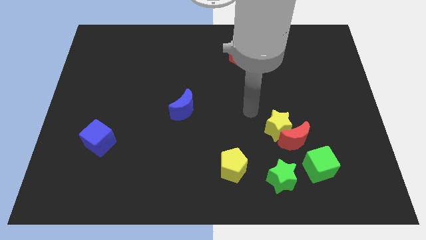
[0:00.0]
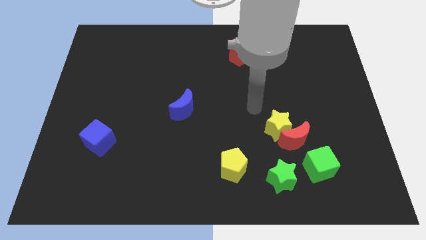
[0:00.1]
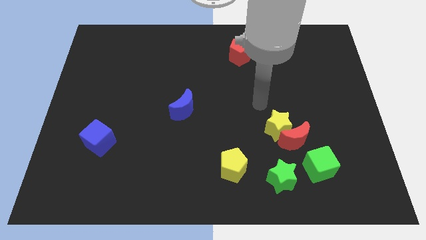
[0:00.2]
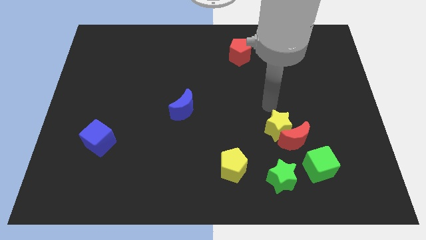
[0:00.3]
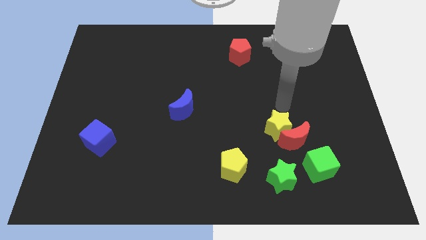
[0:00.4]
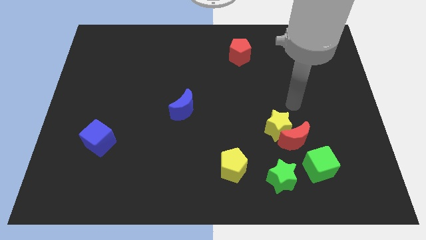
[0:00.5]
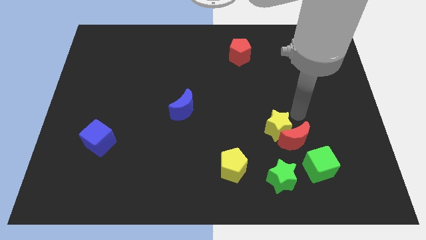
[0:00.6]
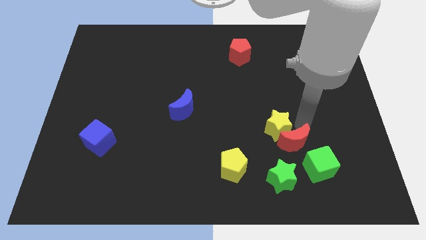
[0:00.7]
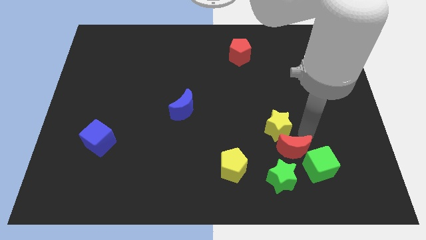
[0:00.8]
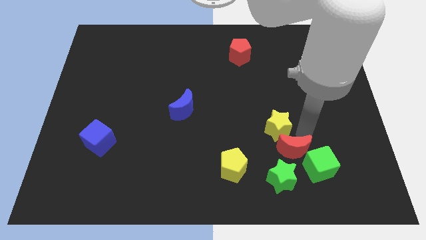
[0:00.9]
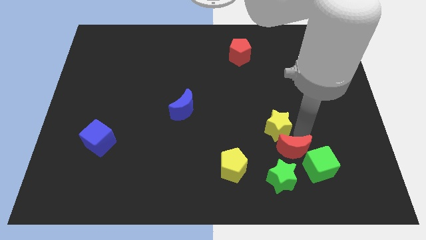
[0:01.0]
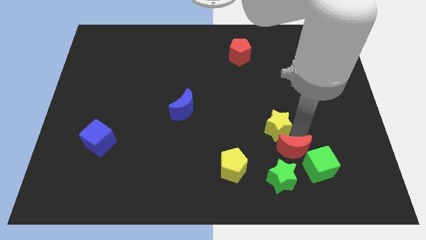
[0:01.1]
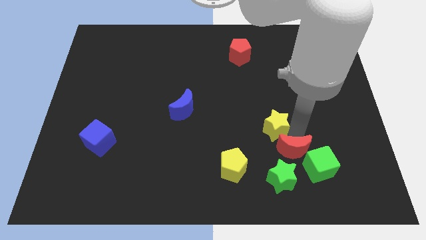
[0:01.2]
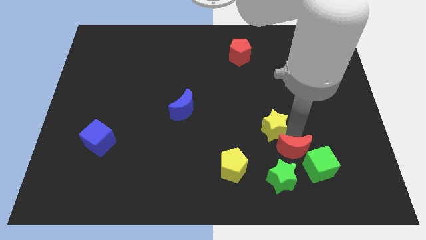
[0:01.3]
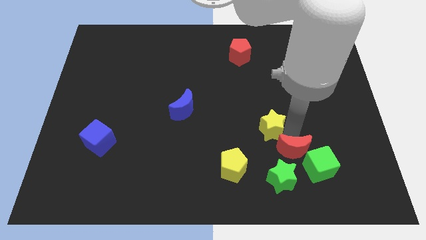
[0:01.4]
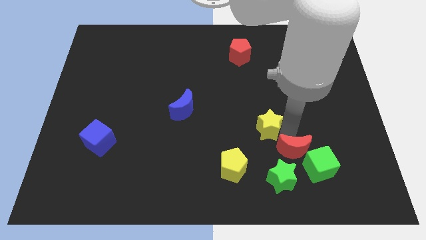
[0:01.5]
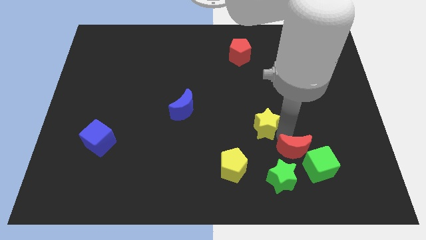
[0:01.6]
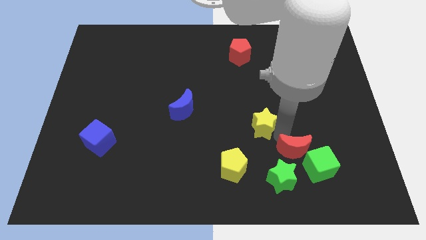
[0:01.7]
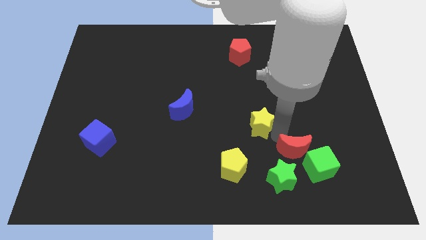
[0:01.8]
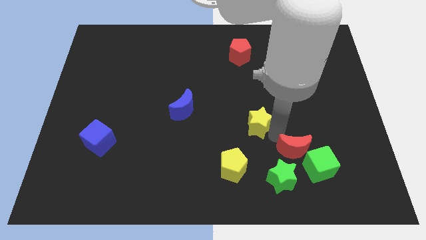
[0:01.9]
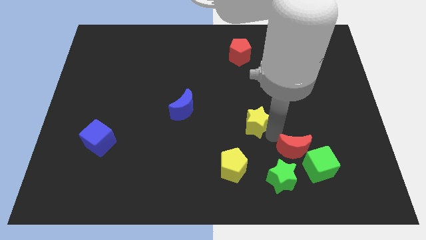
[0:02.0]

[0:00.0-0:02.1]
separate the yellow star from the red moon

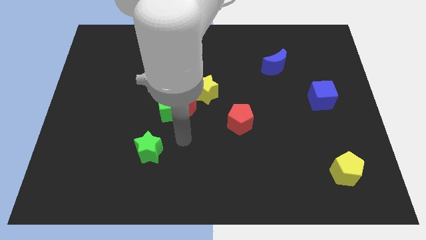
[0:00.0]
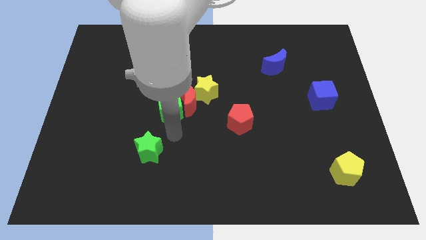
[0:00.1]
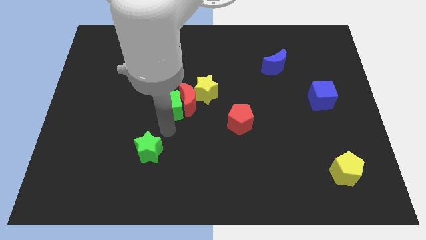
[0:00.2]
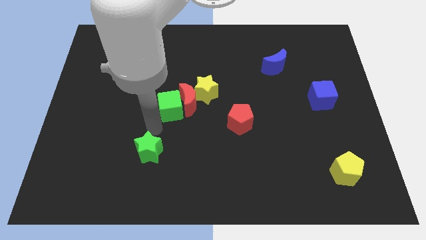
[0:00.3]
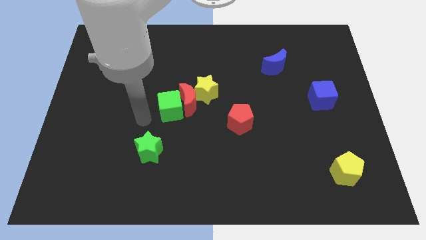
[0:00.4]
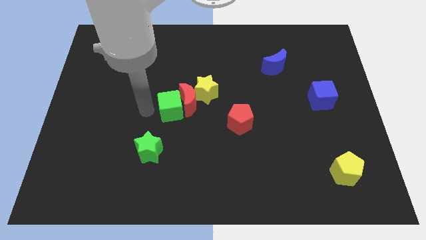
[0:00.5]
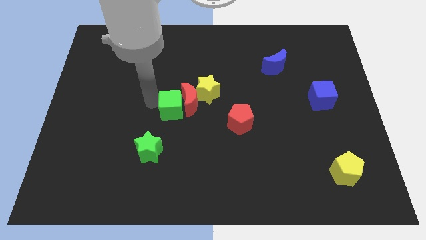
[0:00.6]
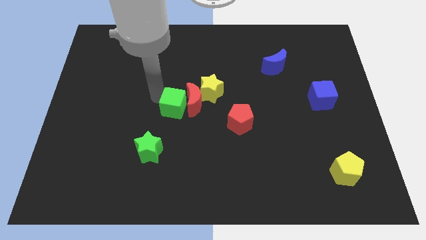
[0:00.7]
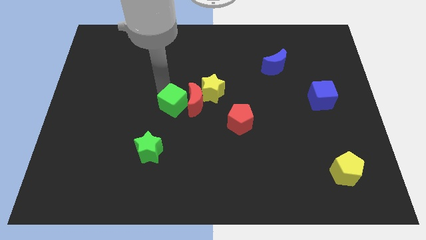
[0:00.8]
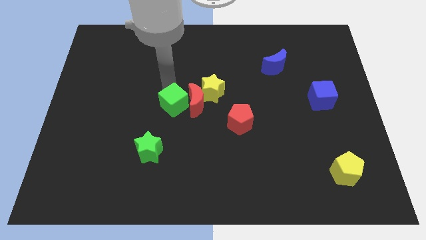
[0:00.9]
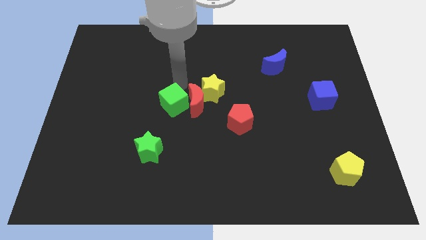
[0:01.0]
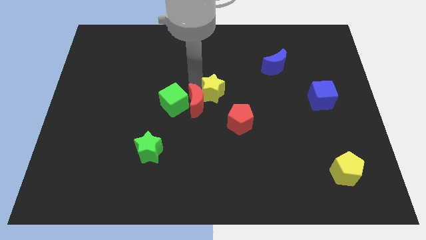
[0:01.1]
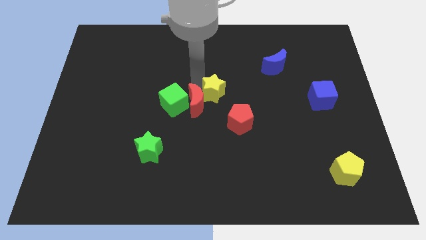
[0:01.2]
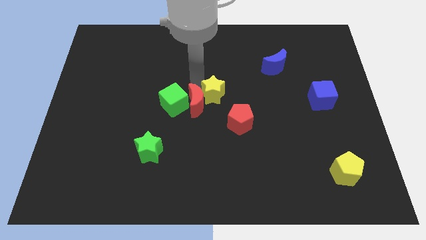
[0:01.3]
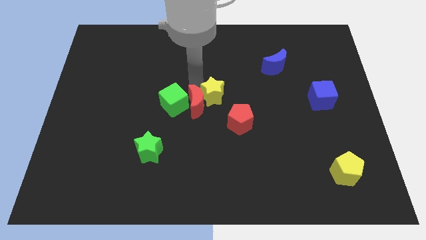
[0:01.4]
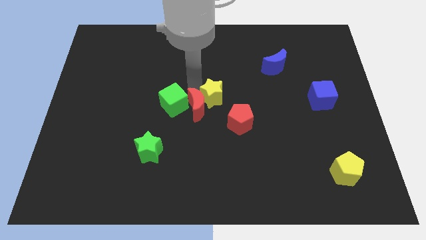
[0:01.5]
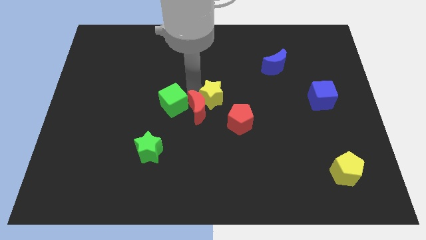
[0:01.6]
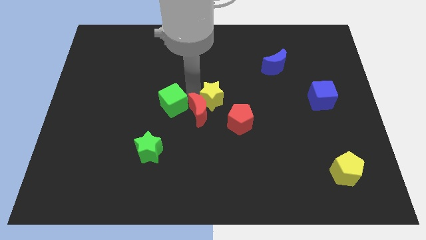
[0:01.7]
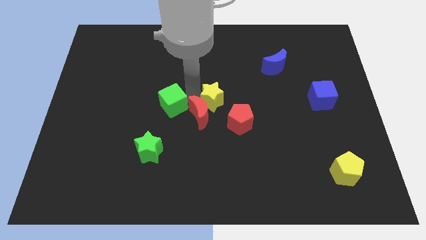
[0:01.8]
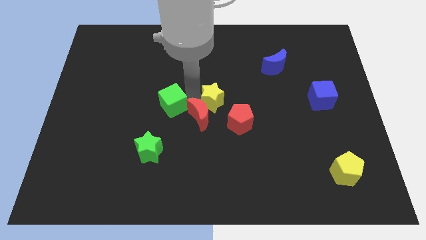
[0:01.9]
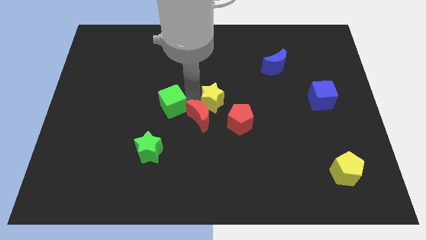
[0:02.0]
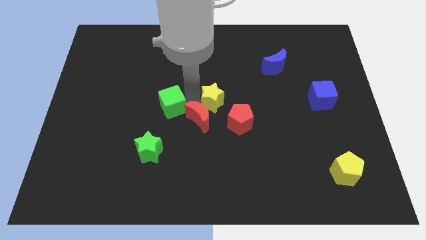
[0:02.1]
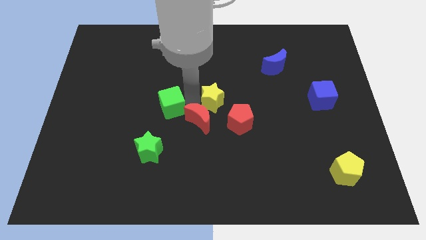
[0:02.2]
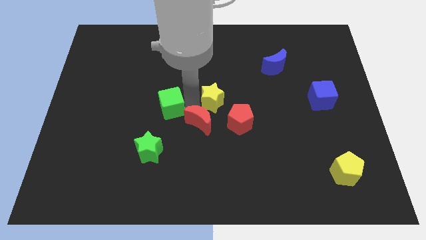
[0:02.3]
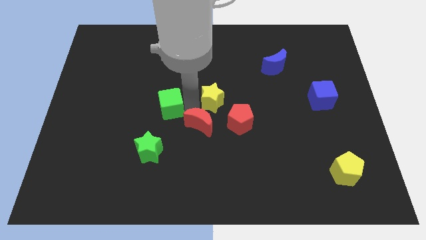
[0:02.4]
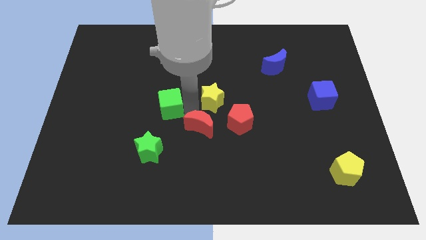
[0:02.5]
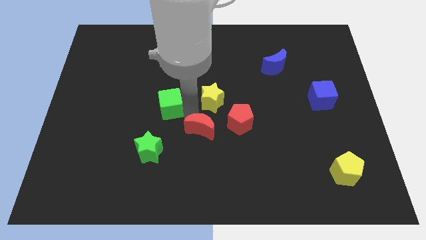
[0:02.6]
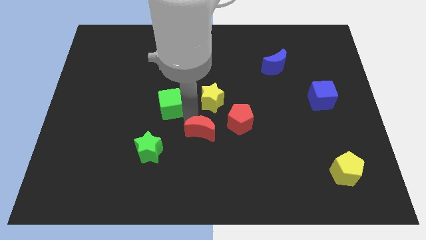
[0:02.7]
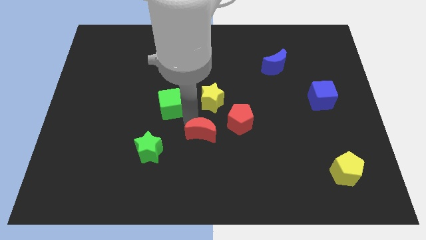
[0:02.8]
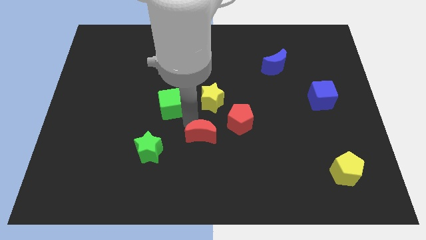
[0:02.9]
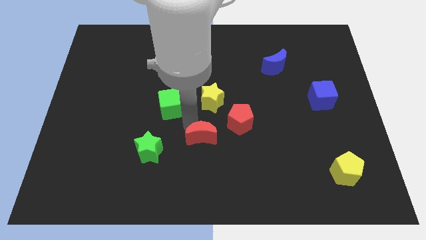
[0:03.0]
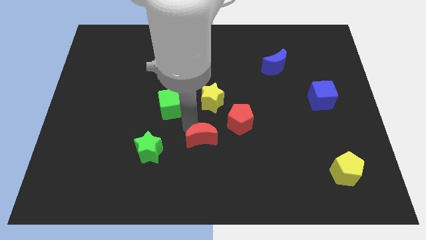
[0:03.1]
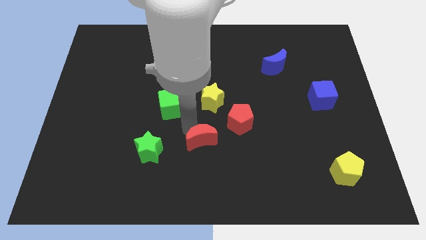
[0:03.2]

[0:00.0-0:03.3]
move the red moon away from the green cube and yellow star

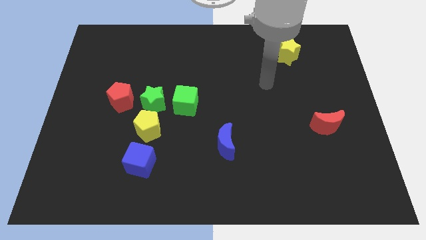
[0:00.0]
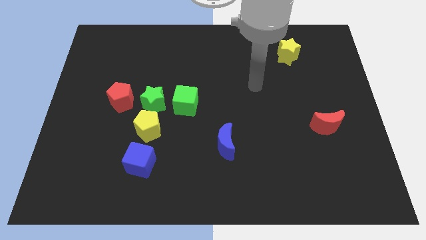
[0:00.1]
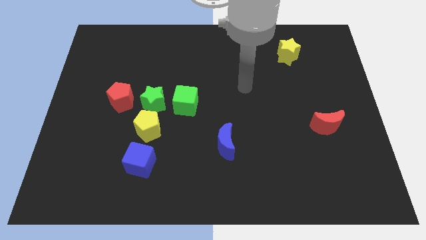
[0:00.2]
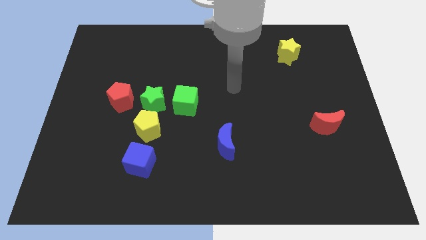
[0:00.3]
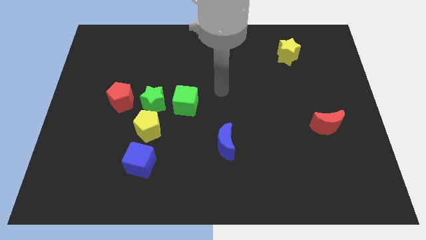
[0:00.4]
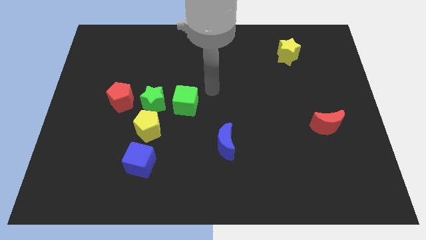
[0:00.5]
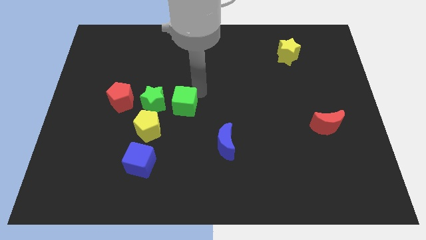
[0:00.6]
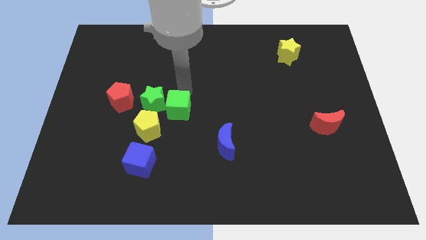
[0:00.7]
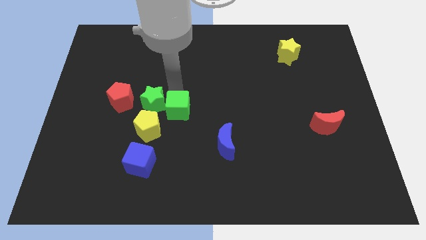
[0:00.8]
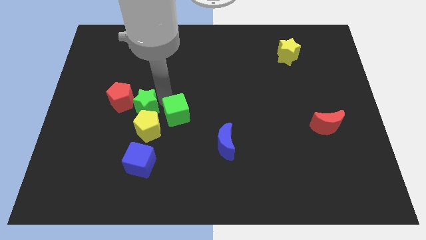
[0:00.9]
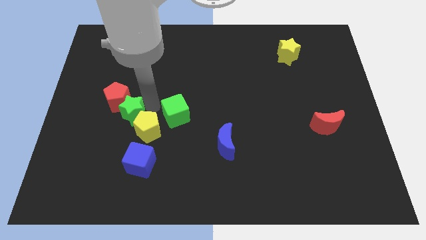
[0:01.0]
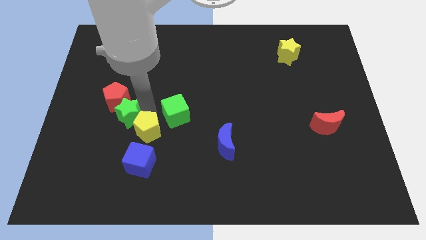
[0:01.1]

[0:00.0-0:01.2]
pull the green cube apart from the green star

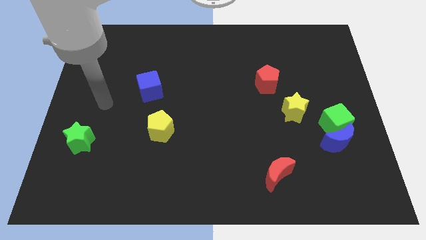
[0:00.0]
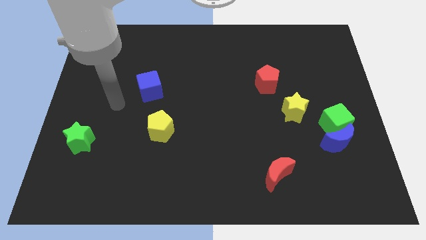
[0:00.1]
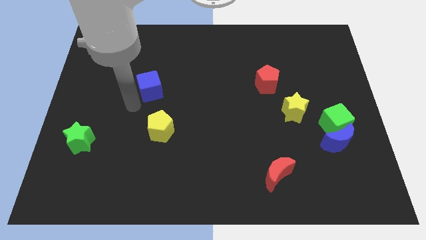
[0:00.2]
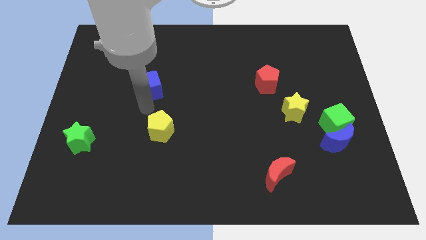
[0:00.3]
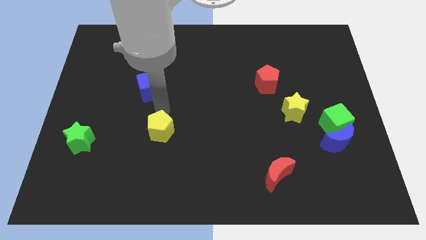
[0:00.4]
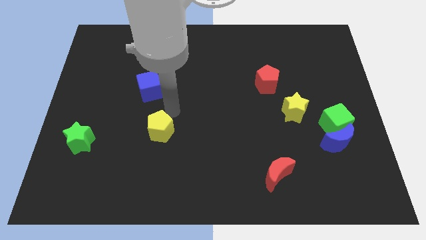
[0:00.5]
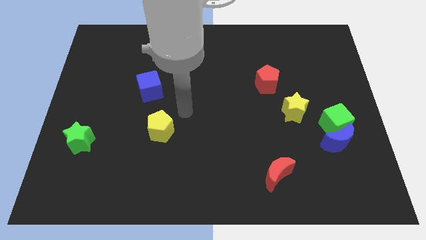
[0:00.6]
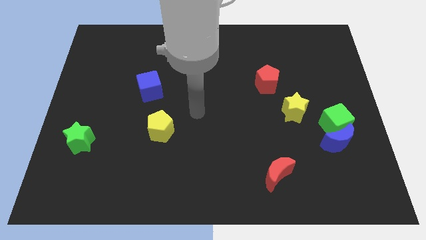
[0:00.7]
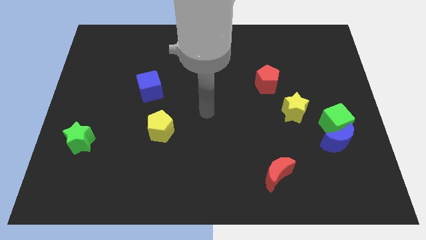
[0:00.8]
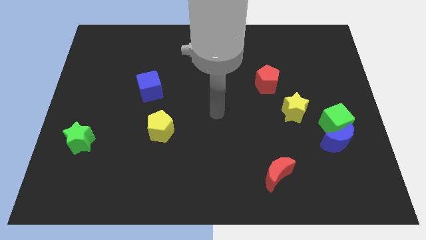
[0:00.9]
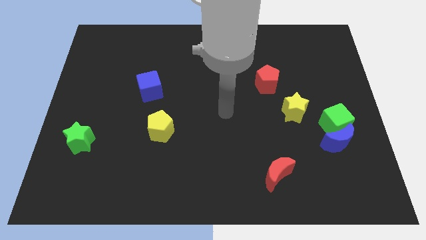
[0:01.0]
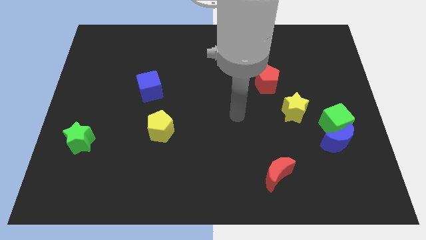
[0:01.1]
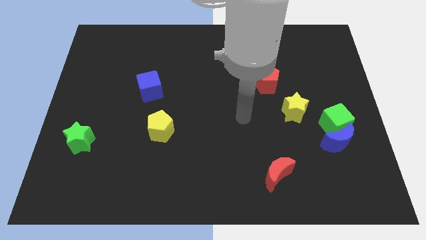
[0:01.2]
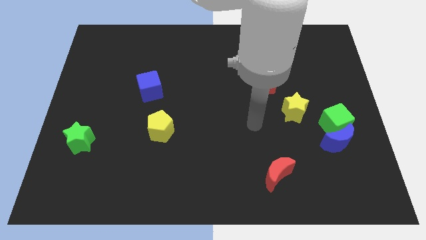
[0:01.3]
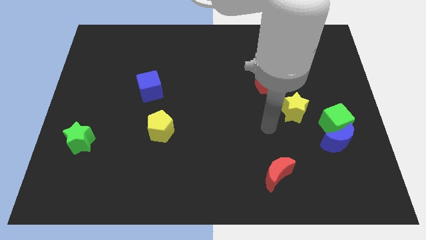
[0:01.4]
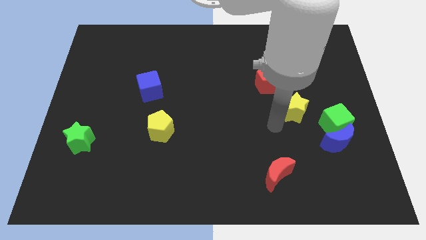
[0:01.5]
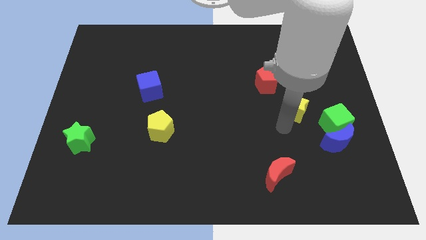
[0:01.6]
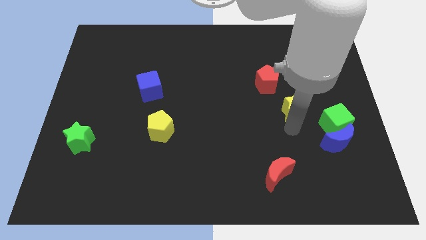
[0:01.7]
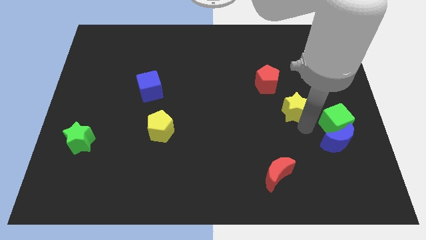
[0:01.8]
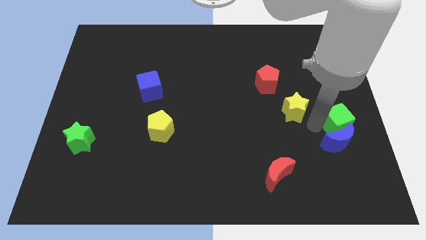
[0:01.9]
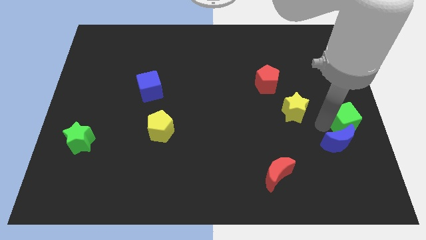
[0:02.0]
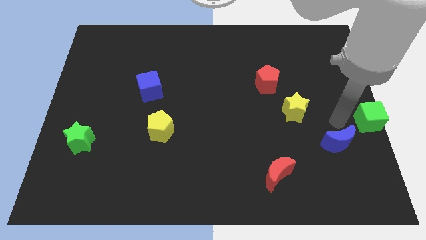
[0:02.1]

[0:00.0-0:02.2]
pull the blue moon apart from the green cube

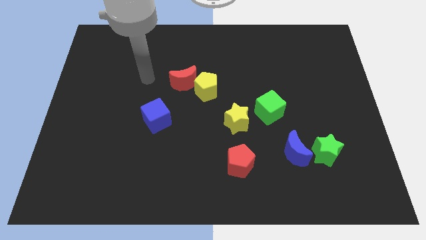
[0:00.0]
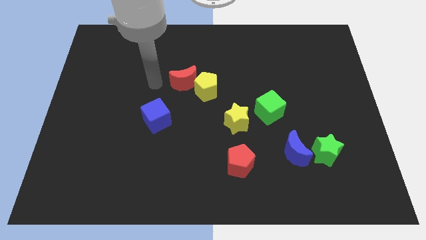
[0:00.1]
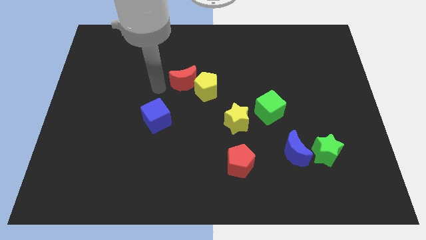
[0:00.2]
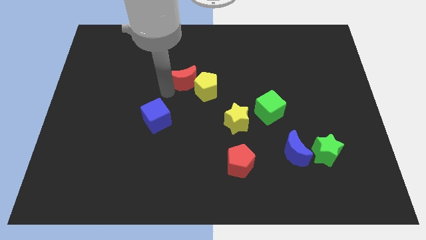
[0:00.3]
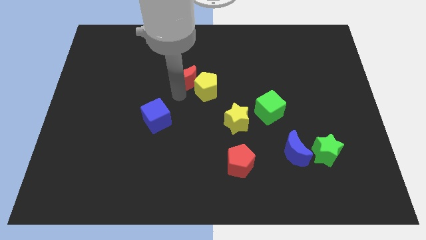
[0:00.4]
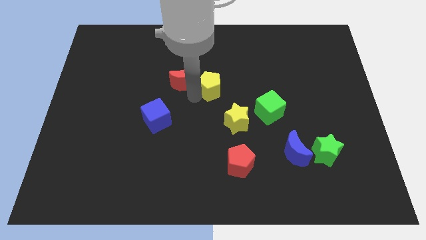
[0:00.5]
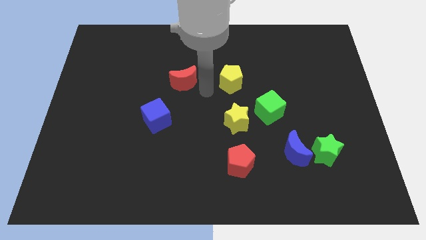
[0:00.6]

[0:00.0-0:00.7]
separate the red moon from the yellow pentagon

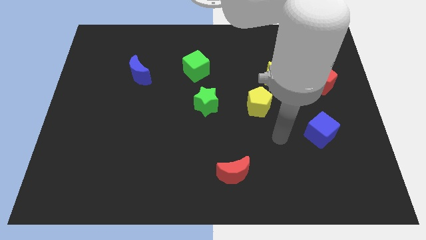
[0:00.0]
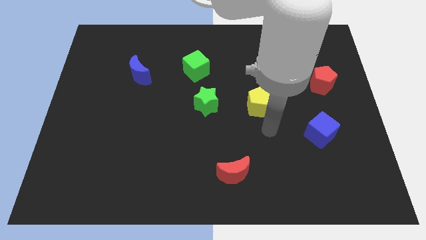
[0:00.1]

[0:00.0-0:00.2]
separate the yellow star from the yellow pentagon
